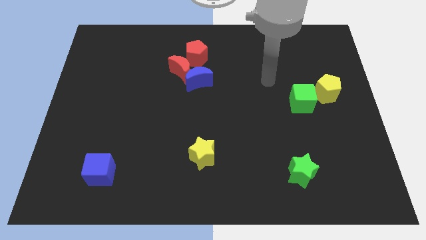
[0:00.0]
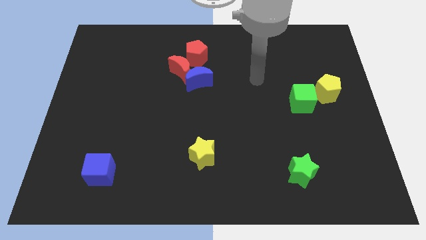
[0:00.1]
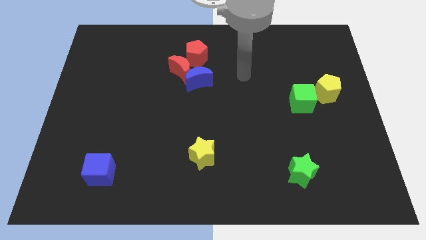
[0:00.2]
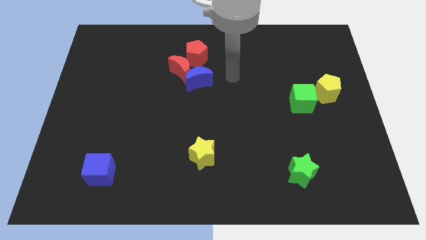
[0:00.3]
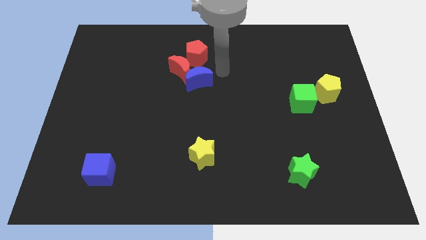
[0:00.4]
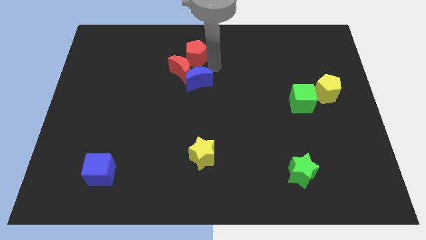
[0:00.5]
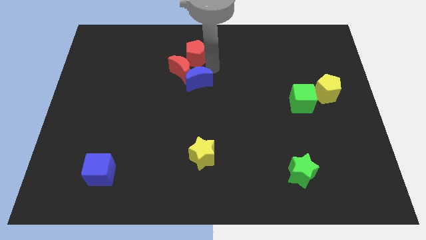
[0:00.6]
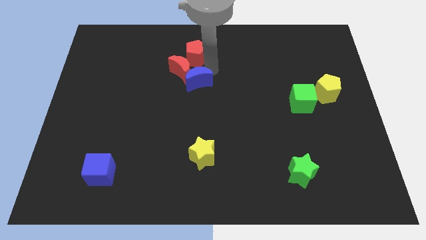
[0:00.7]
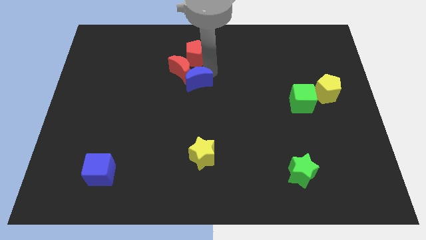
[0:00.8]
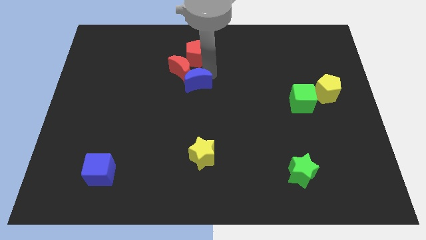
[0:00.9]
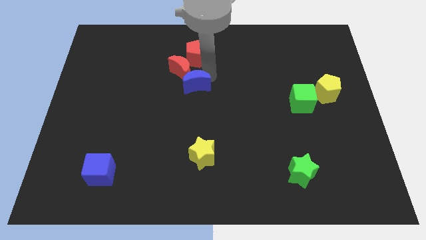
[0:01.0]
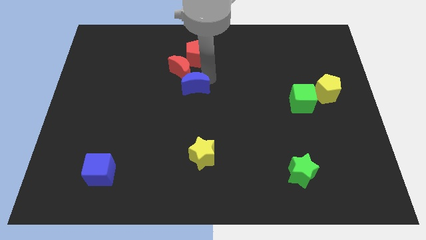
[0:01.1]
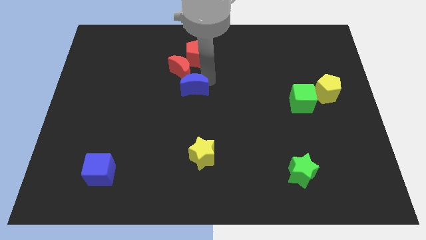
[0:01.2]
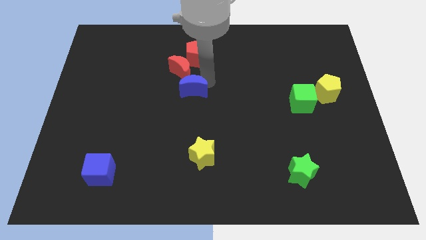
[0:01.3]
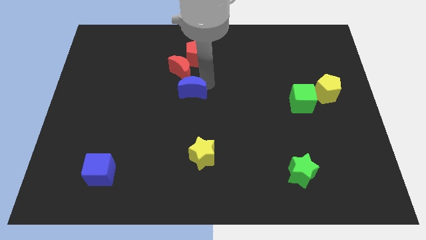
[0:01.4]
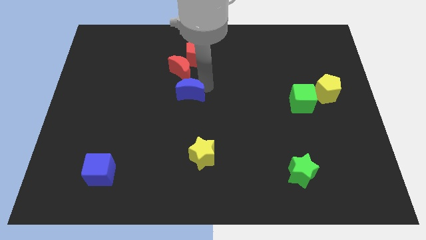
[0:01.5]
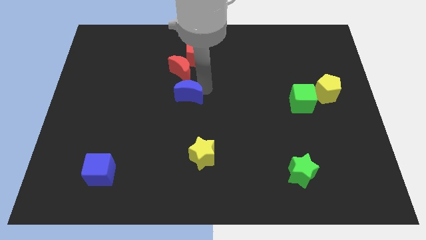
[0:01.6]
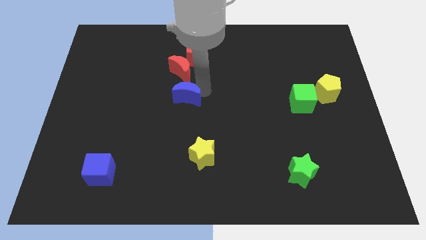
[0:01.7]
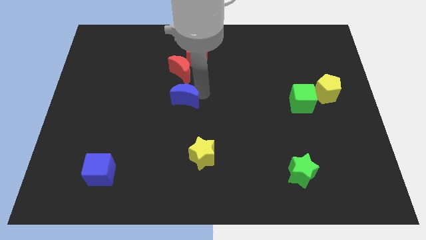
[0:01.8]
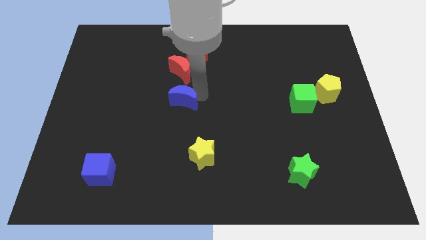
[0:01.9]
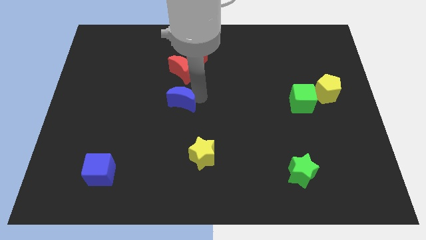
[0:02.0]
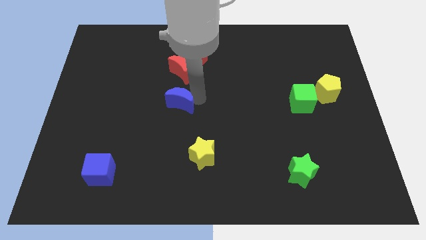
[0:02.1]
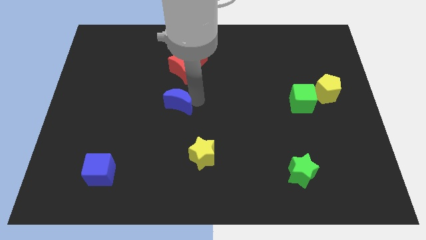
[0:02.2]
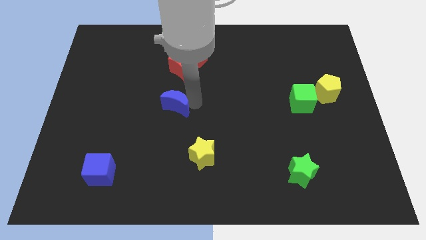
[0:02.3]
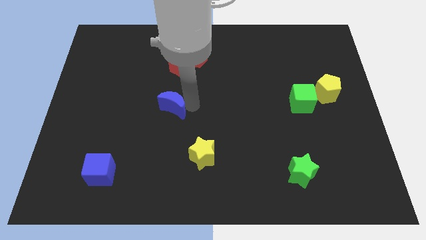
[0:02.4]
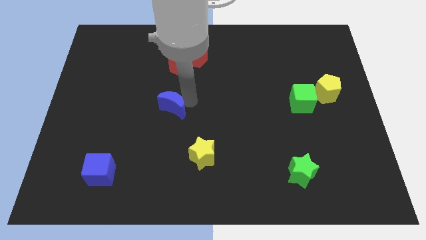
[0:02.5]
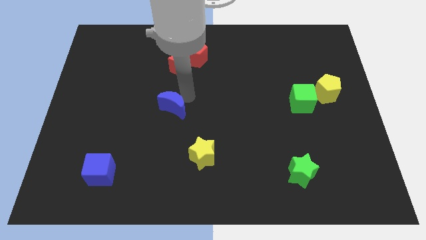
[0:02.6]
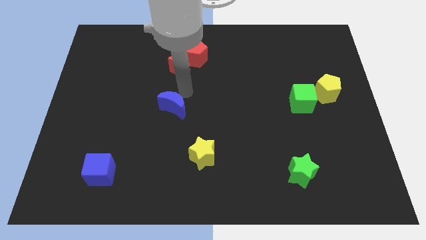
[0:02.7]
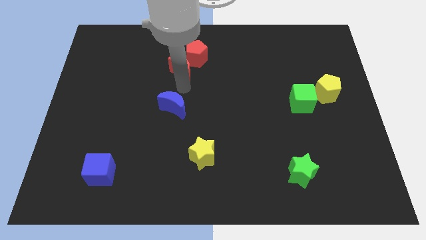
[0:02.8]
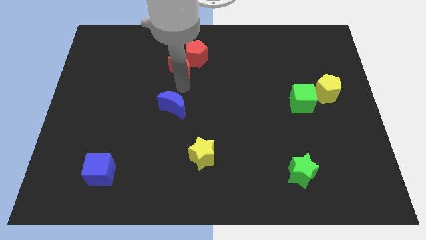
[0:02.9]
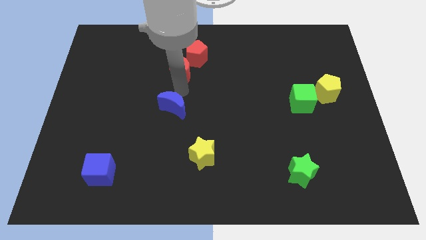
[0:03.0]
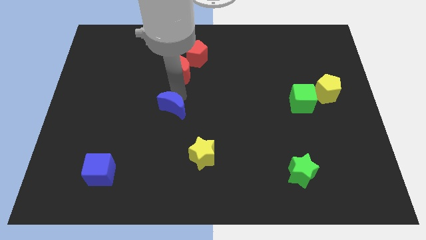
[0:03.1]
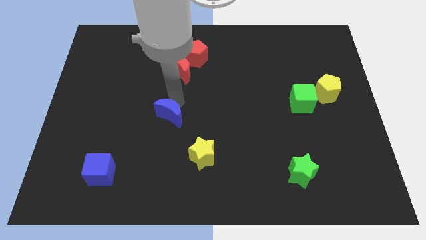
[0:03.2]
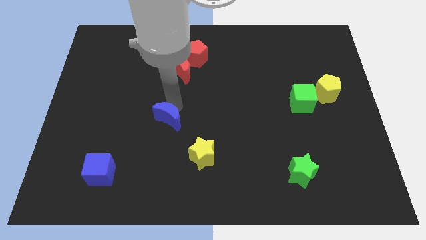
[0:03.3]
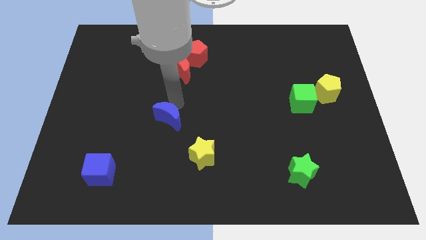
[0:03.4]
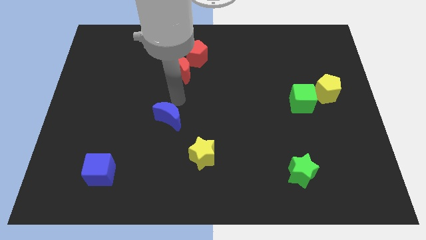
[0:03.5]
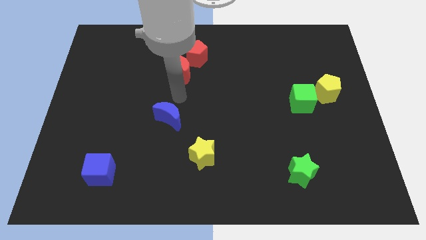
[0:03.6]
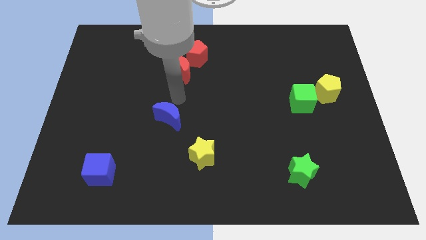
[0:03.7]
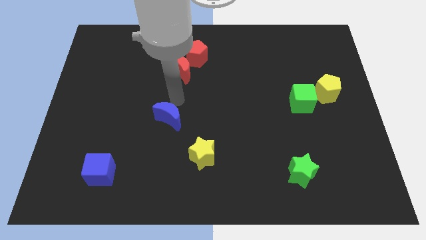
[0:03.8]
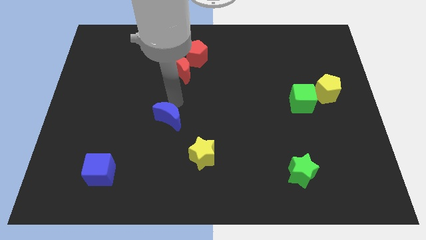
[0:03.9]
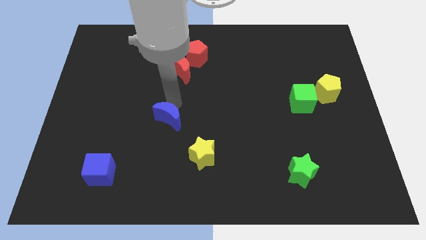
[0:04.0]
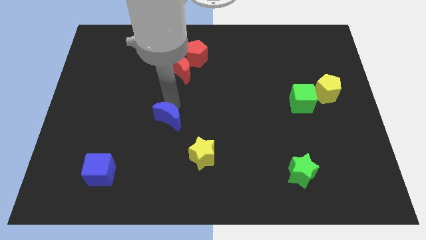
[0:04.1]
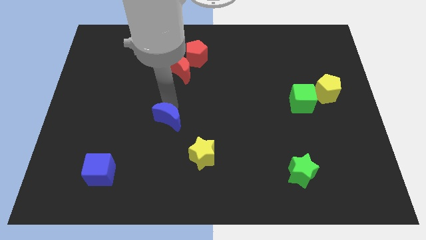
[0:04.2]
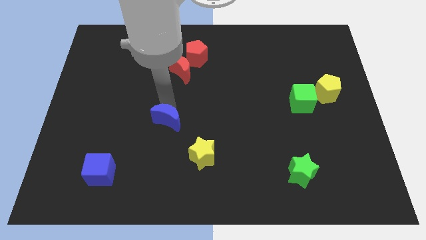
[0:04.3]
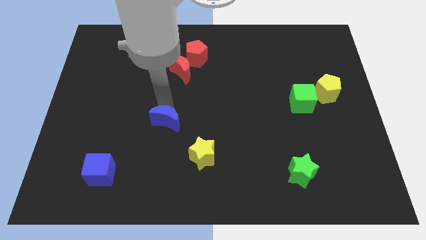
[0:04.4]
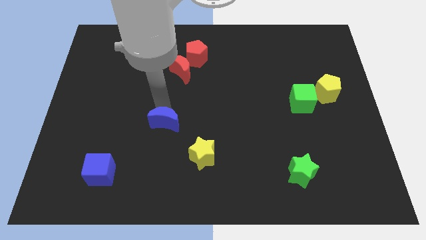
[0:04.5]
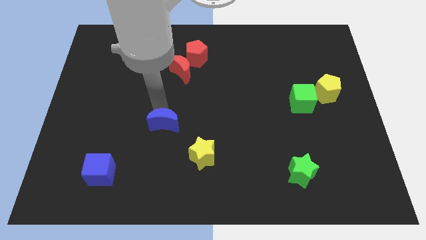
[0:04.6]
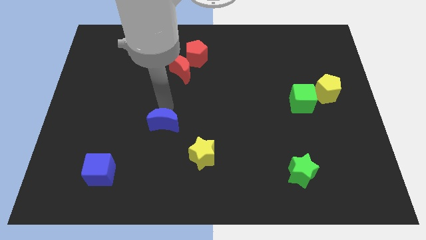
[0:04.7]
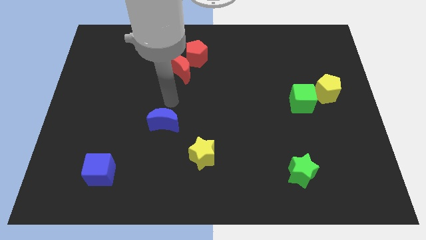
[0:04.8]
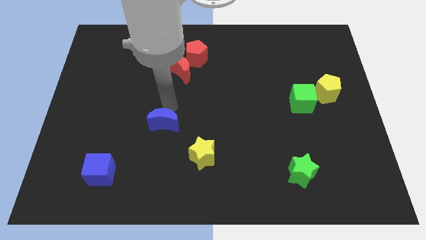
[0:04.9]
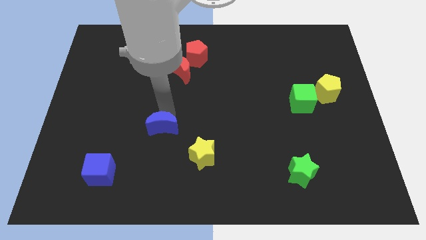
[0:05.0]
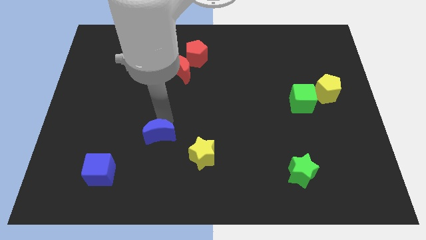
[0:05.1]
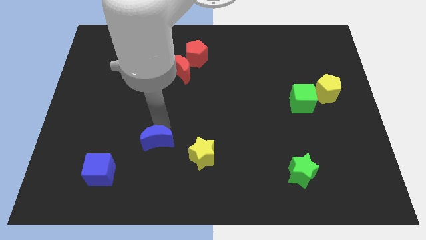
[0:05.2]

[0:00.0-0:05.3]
push the blue moon left of the yellow star

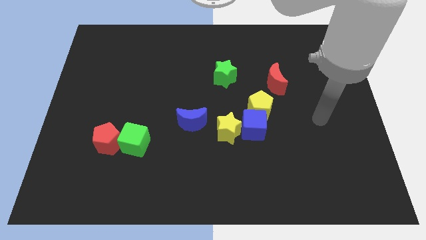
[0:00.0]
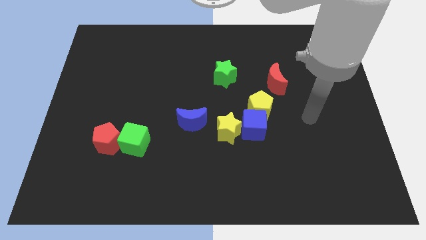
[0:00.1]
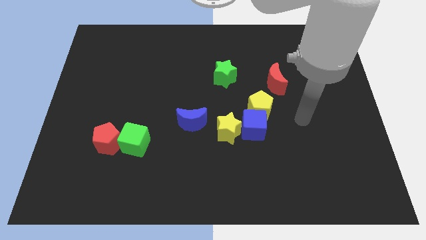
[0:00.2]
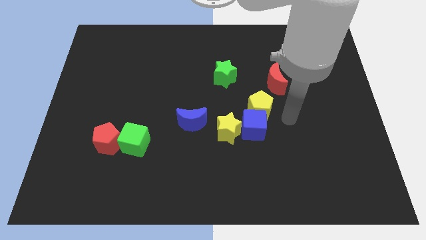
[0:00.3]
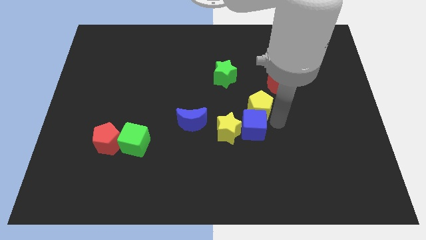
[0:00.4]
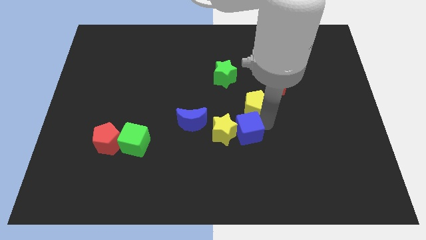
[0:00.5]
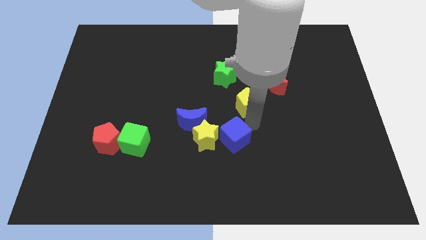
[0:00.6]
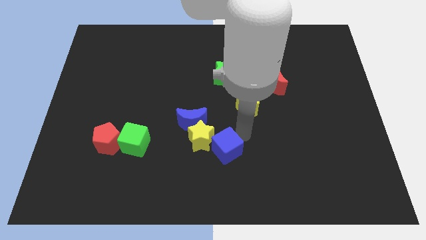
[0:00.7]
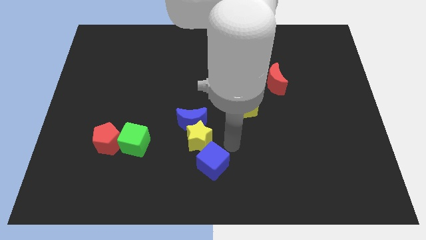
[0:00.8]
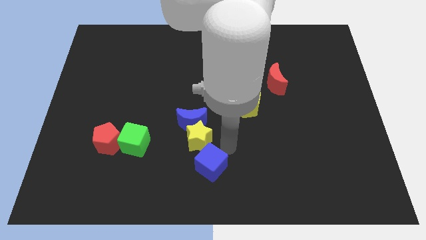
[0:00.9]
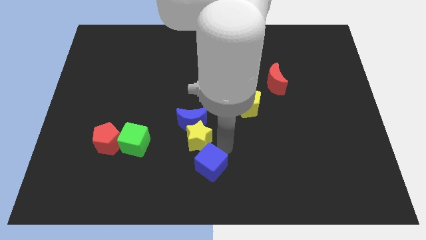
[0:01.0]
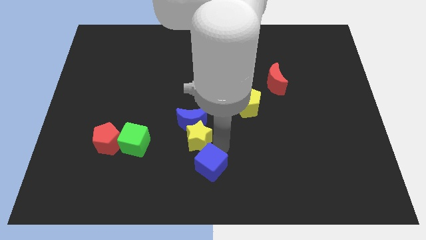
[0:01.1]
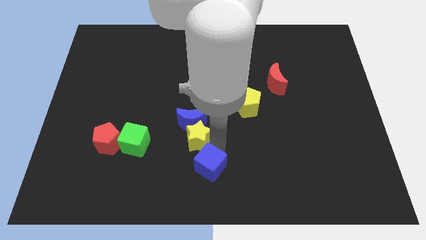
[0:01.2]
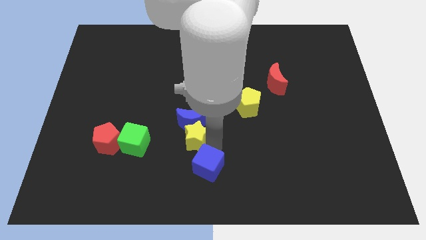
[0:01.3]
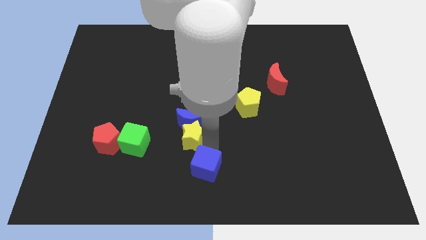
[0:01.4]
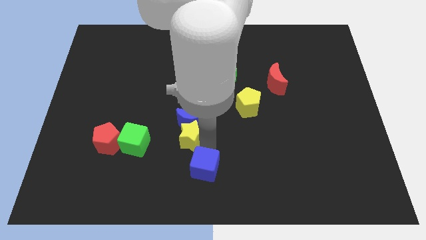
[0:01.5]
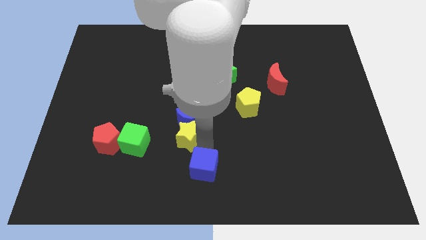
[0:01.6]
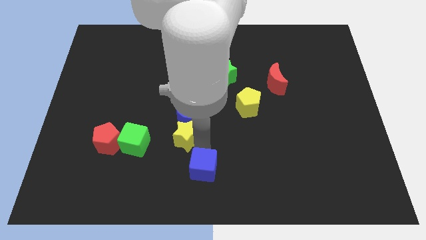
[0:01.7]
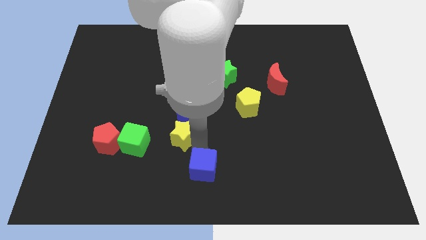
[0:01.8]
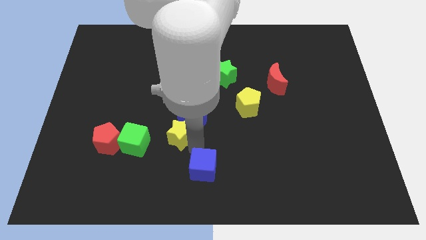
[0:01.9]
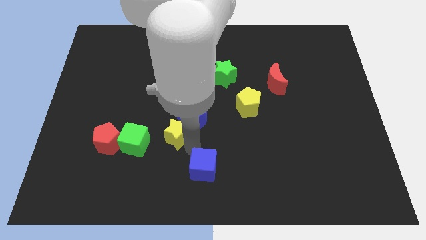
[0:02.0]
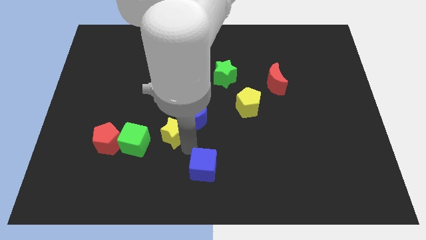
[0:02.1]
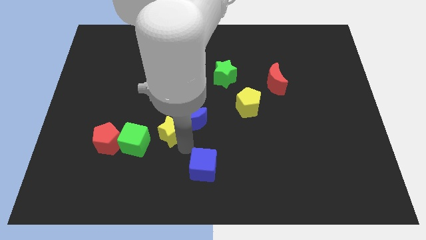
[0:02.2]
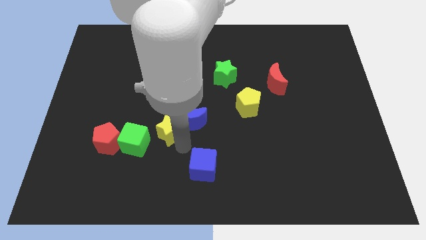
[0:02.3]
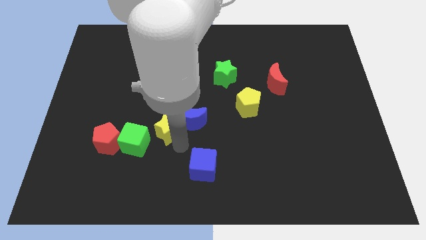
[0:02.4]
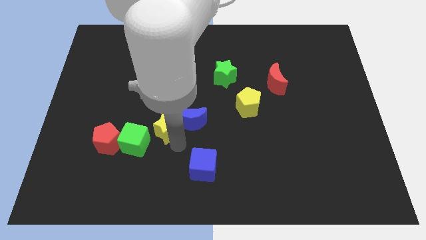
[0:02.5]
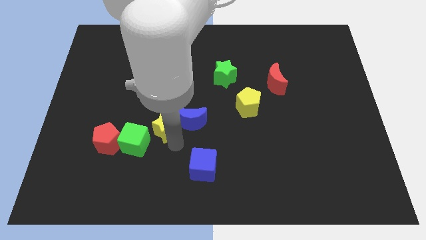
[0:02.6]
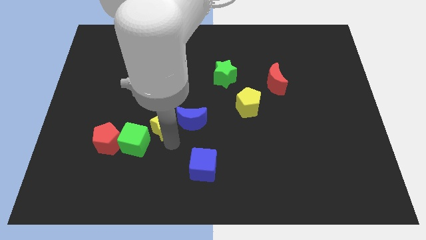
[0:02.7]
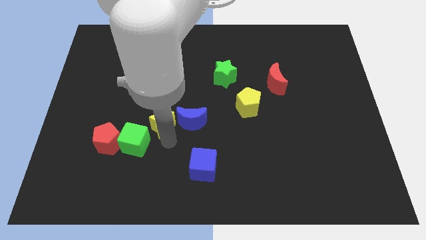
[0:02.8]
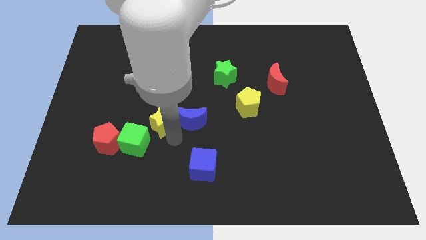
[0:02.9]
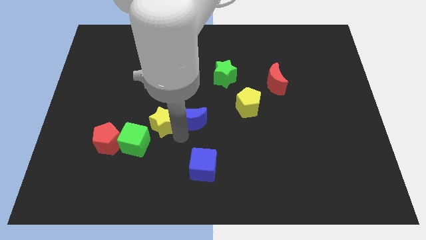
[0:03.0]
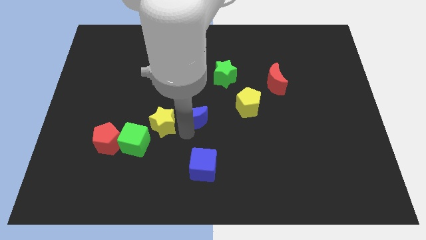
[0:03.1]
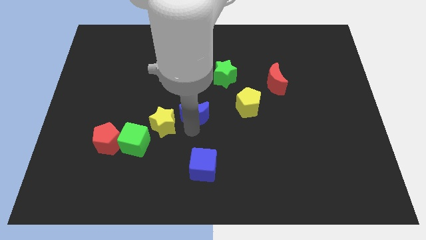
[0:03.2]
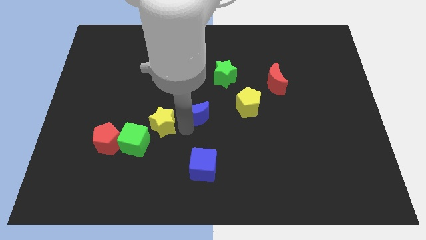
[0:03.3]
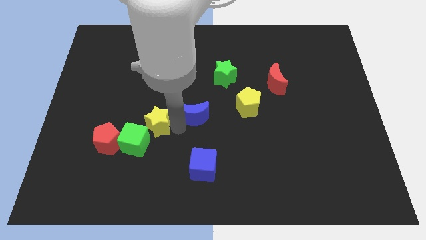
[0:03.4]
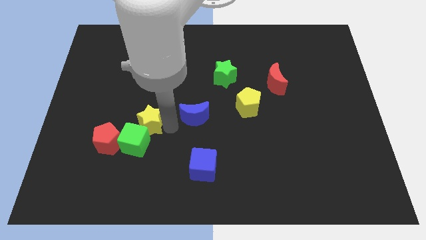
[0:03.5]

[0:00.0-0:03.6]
push the yellow star to the top right side of the red pentagon
